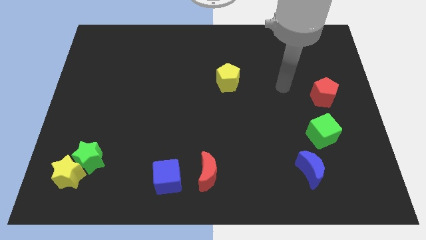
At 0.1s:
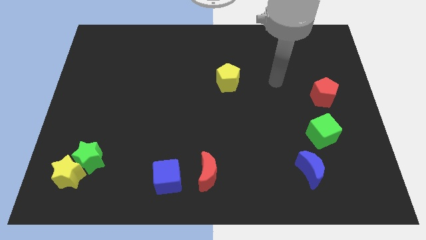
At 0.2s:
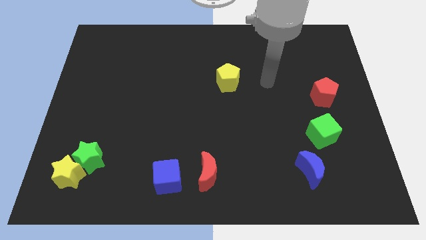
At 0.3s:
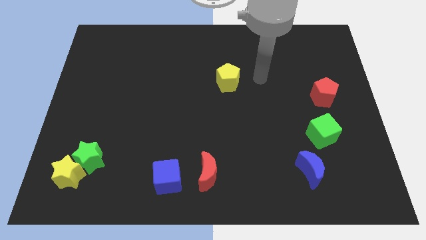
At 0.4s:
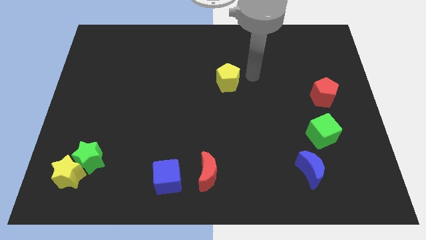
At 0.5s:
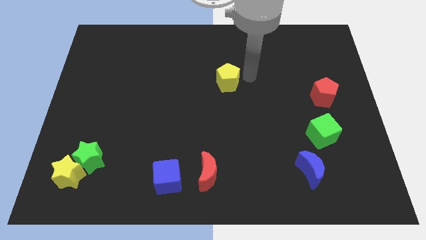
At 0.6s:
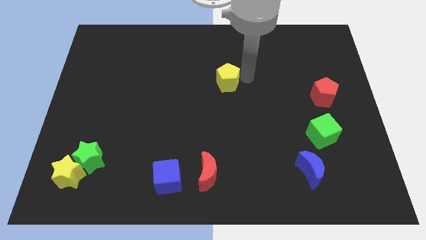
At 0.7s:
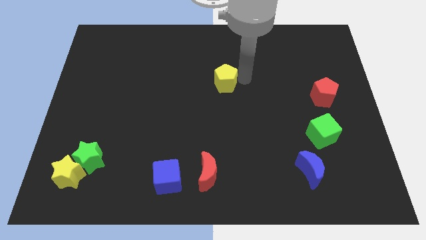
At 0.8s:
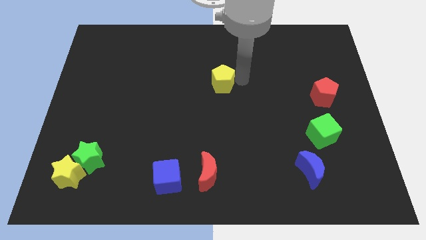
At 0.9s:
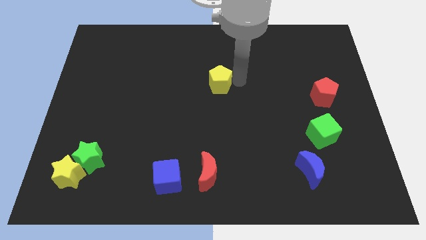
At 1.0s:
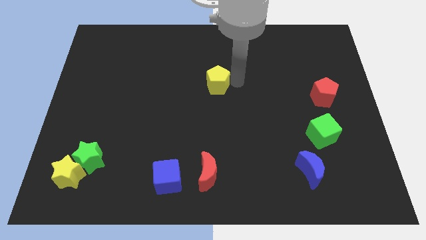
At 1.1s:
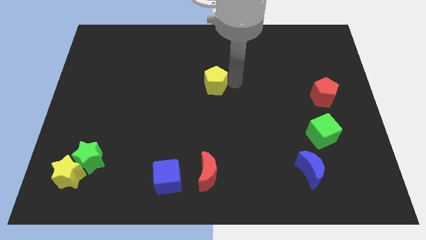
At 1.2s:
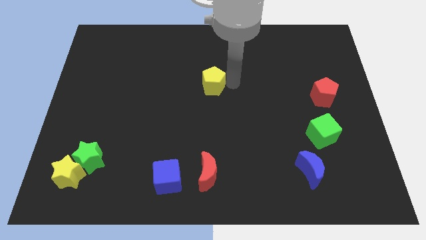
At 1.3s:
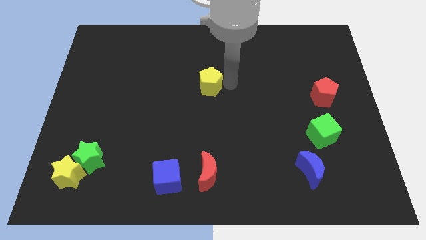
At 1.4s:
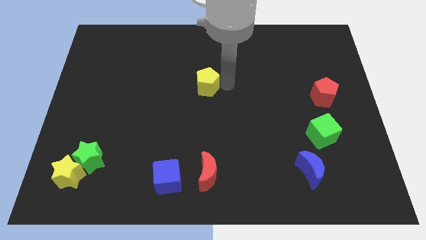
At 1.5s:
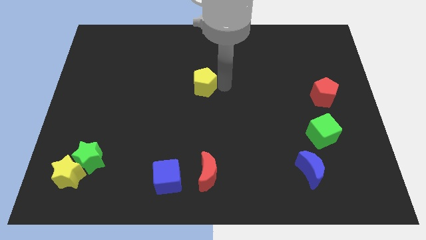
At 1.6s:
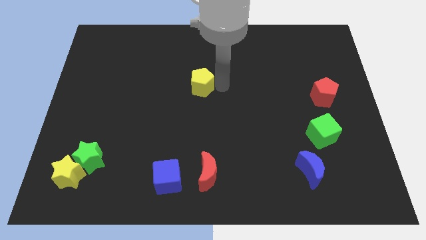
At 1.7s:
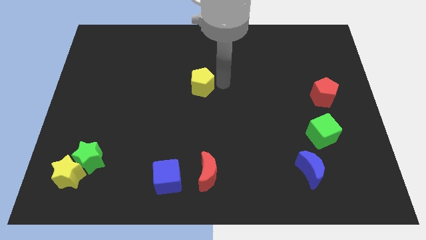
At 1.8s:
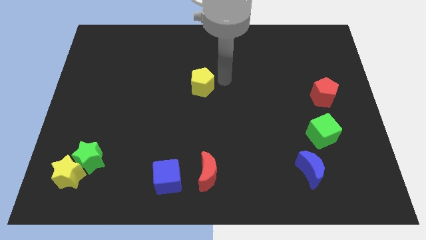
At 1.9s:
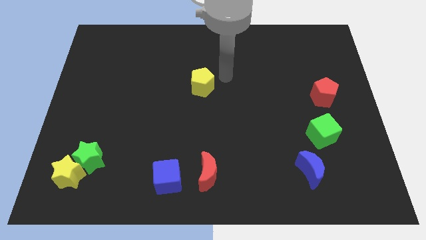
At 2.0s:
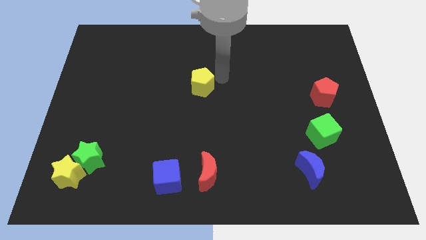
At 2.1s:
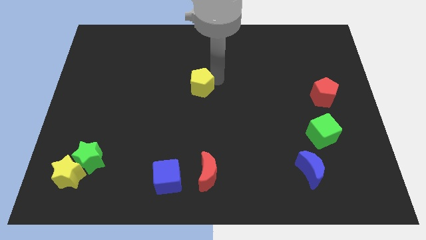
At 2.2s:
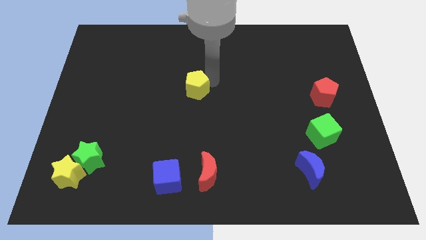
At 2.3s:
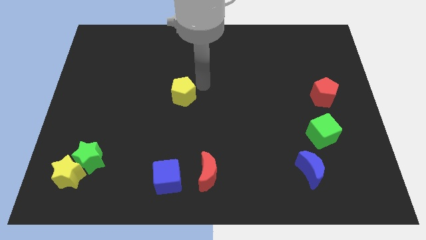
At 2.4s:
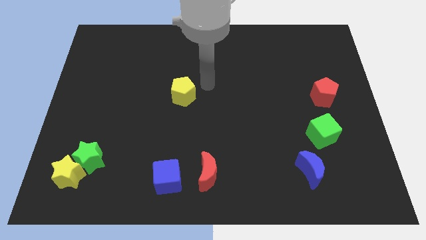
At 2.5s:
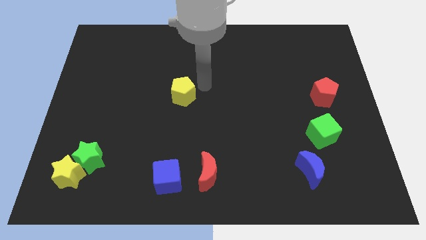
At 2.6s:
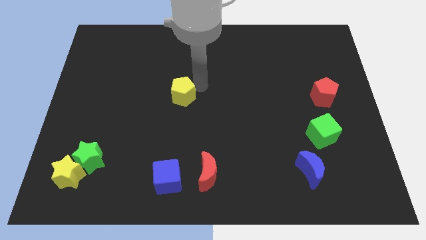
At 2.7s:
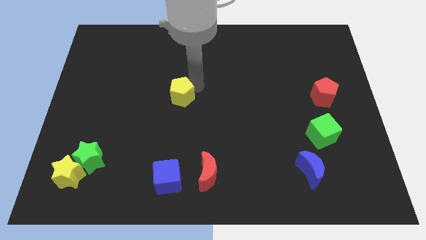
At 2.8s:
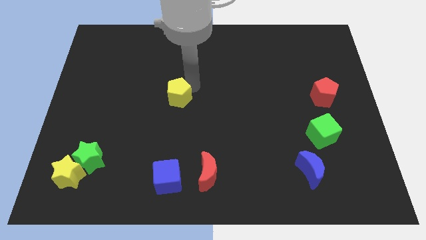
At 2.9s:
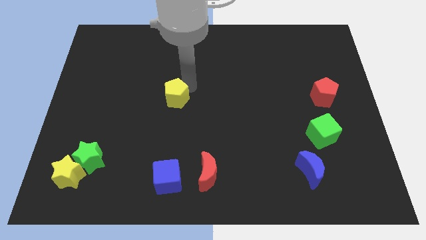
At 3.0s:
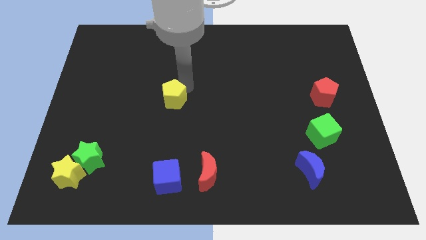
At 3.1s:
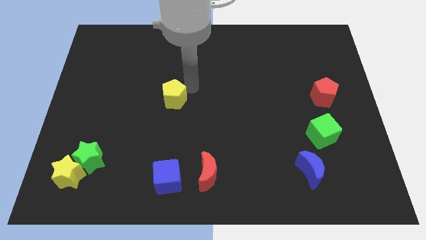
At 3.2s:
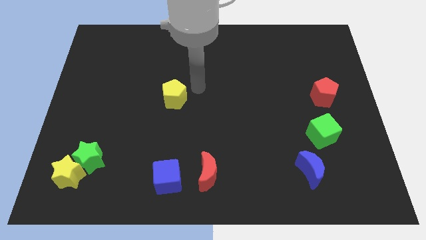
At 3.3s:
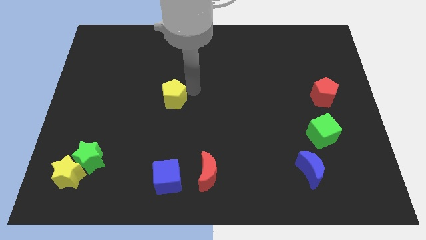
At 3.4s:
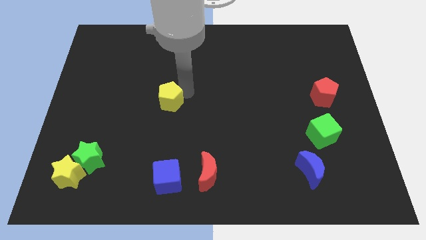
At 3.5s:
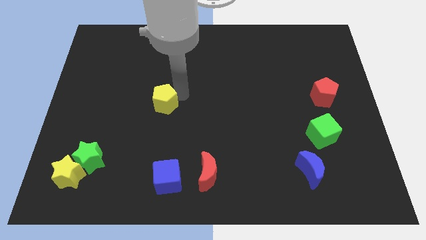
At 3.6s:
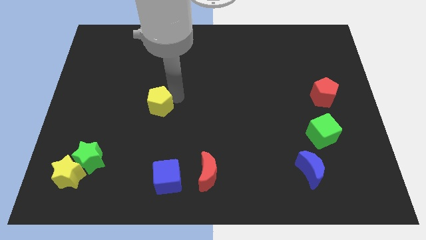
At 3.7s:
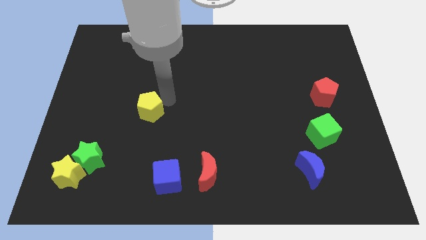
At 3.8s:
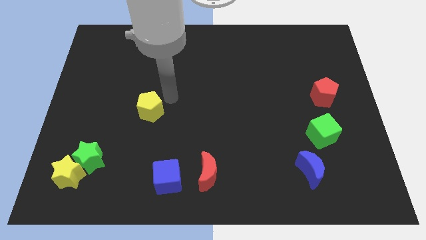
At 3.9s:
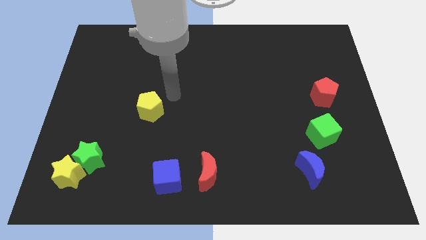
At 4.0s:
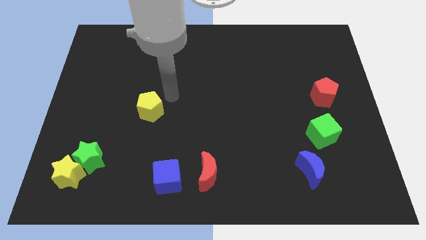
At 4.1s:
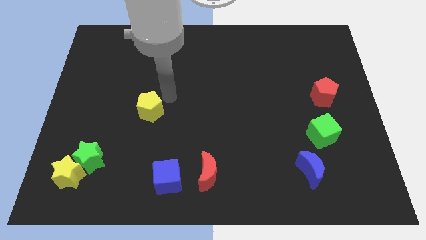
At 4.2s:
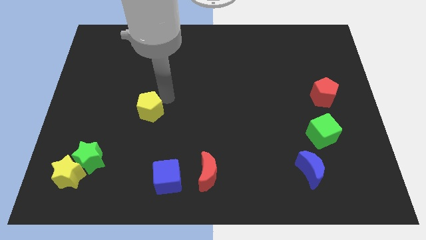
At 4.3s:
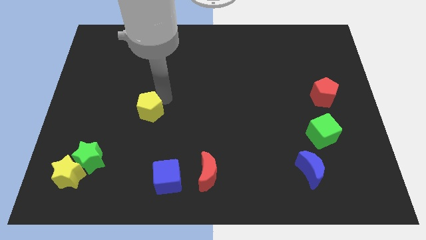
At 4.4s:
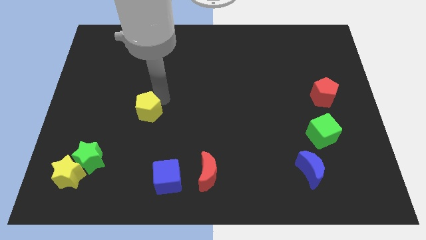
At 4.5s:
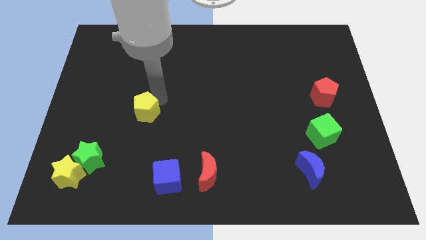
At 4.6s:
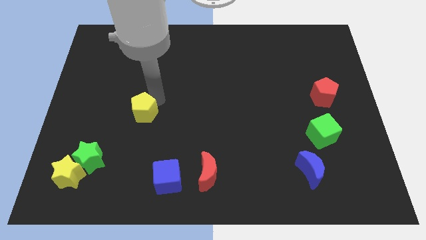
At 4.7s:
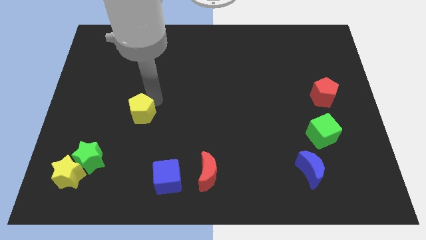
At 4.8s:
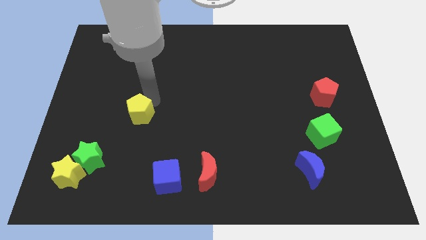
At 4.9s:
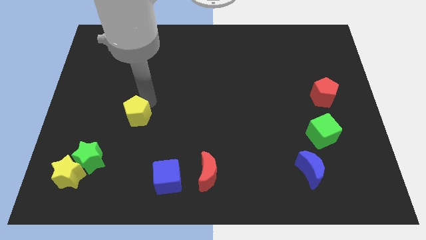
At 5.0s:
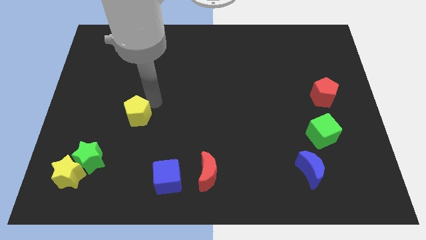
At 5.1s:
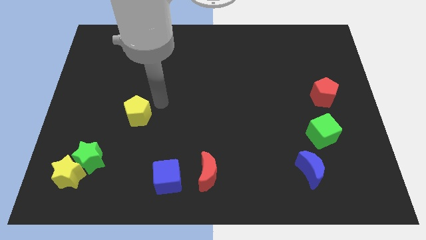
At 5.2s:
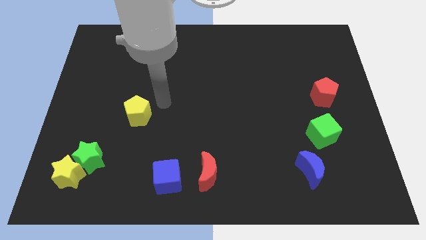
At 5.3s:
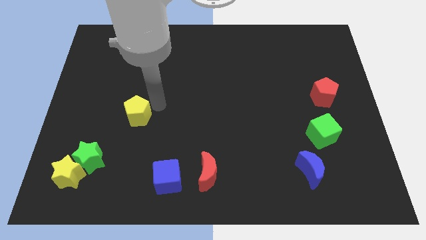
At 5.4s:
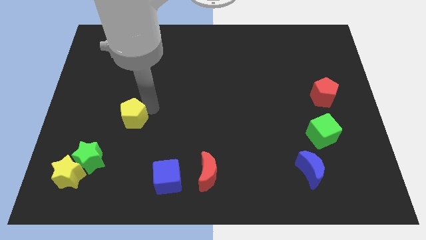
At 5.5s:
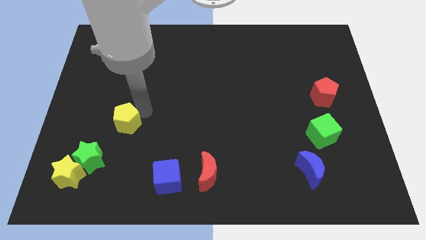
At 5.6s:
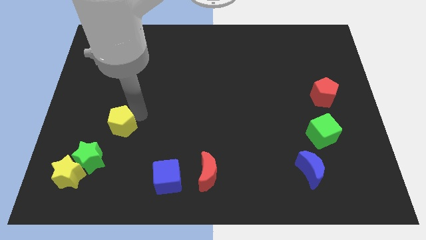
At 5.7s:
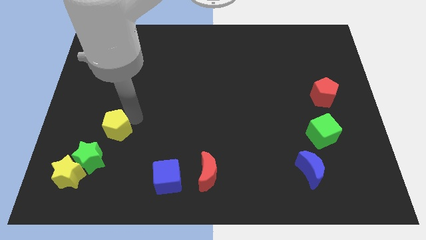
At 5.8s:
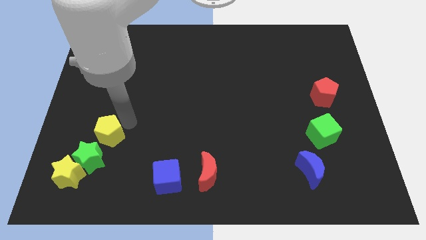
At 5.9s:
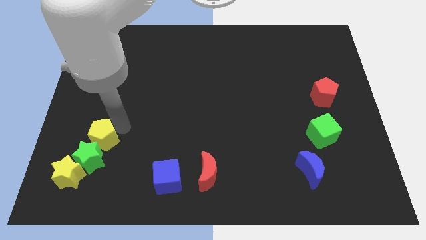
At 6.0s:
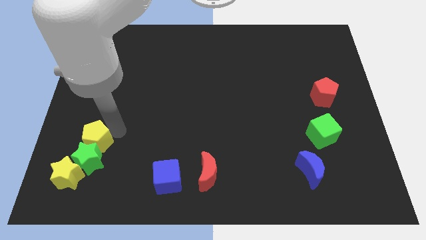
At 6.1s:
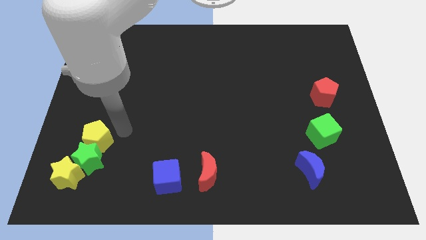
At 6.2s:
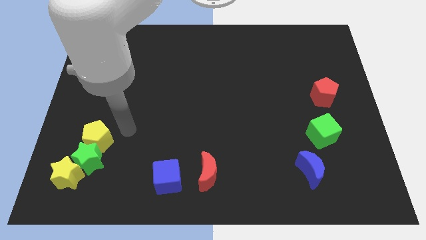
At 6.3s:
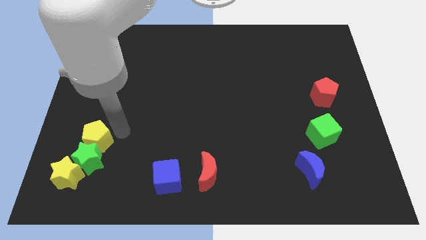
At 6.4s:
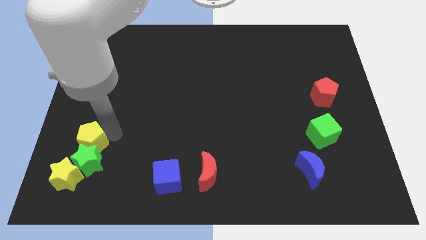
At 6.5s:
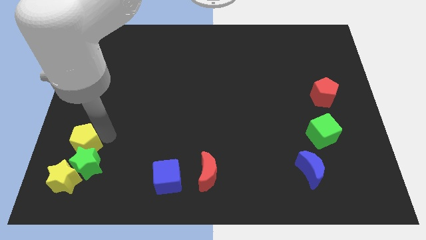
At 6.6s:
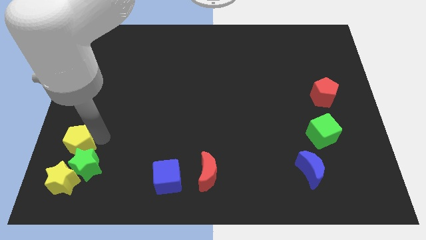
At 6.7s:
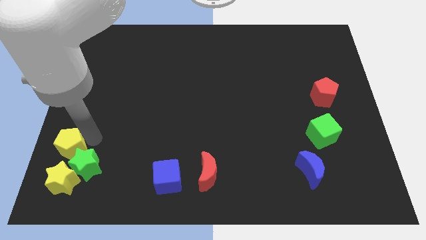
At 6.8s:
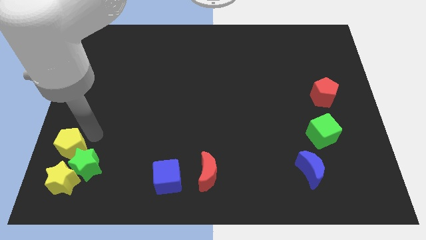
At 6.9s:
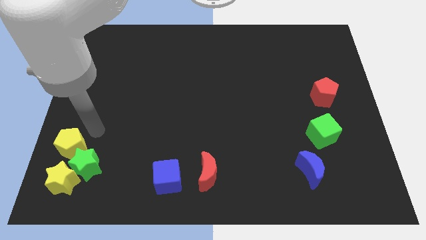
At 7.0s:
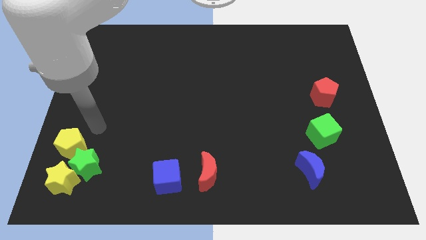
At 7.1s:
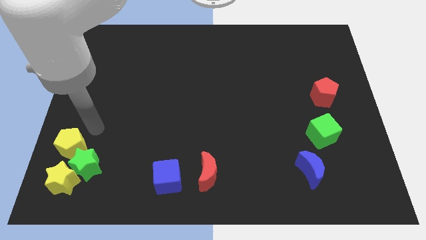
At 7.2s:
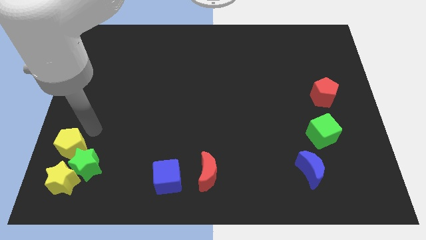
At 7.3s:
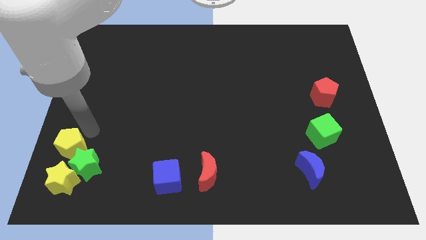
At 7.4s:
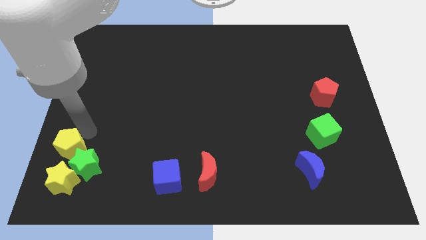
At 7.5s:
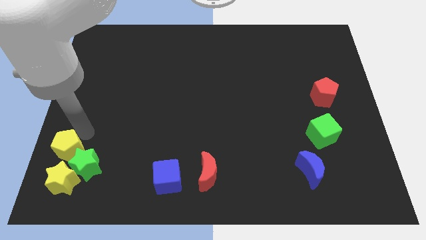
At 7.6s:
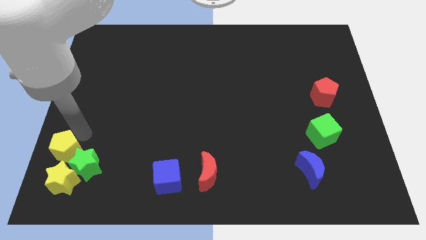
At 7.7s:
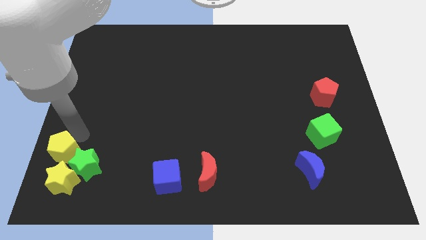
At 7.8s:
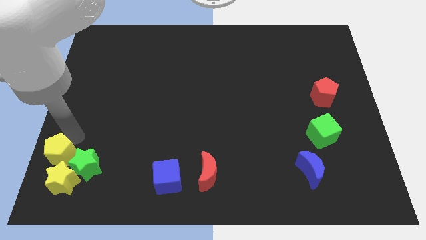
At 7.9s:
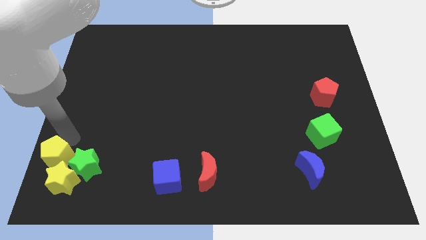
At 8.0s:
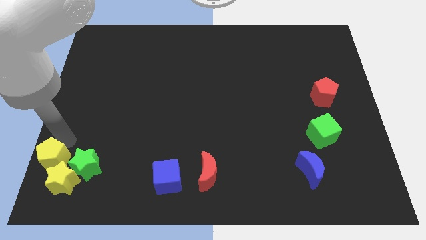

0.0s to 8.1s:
put the yellow pentagon to the bottom left
